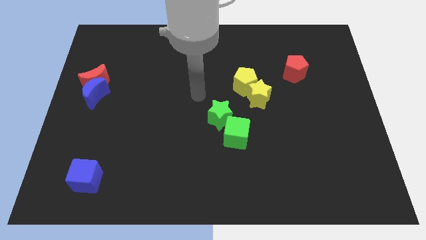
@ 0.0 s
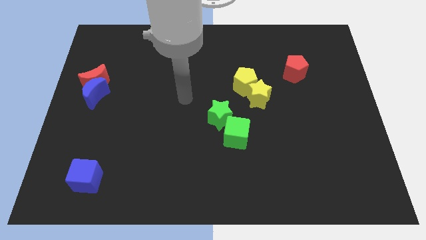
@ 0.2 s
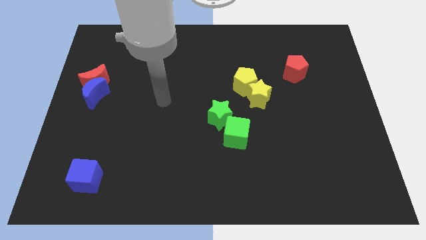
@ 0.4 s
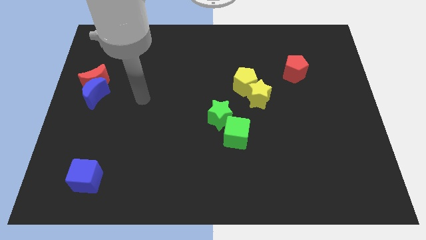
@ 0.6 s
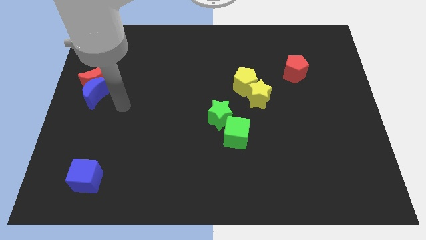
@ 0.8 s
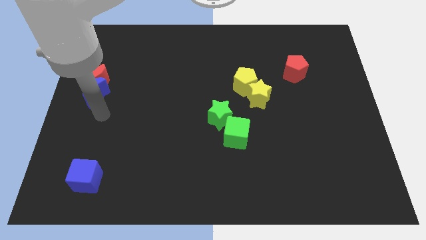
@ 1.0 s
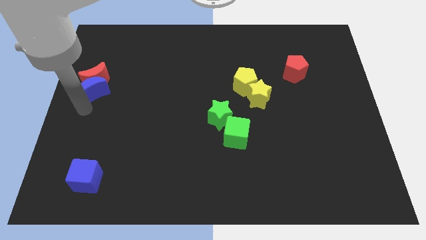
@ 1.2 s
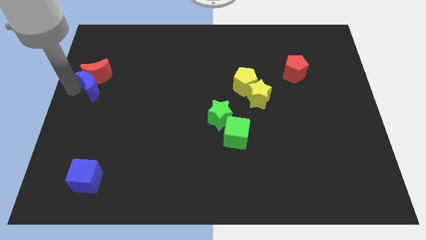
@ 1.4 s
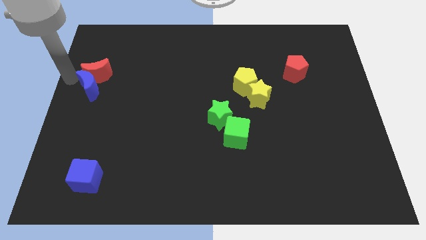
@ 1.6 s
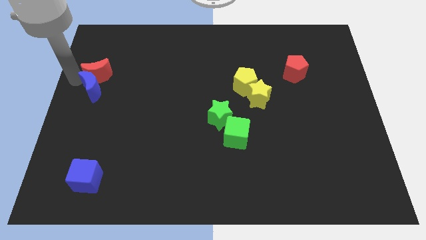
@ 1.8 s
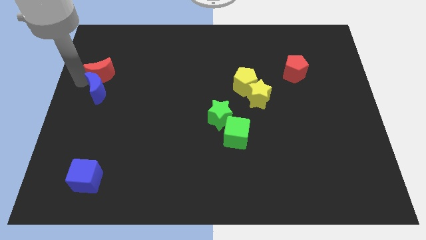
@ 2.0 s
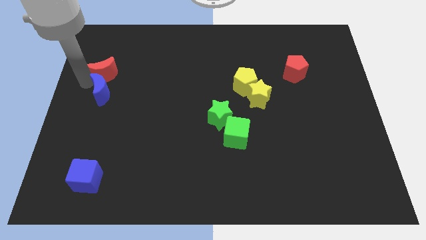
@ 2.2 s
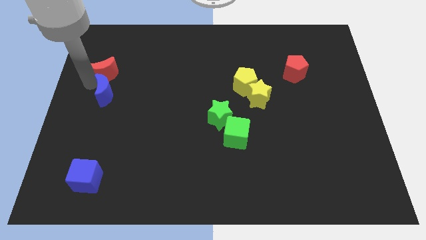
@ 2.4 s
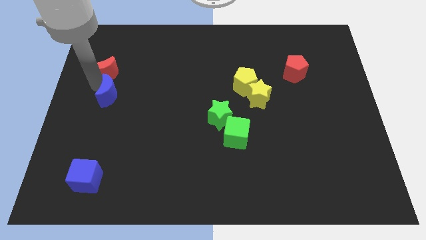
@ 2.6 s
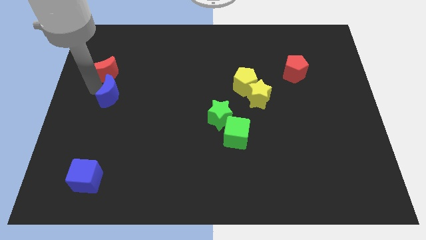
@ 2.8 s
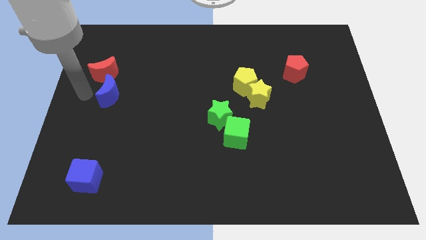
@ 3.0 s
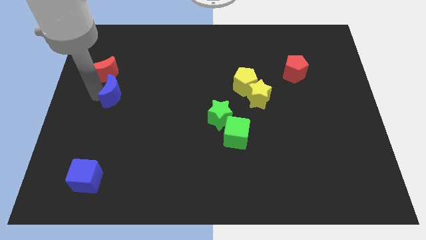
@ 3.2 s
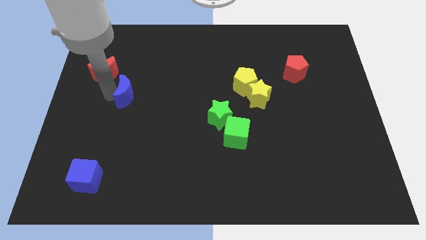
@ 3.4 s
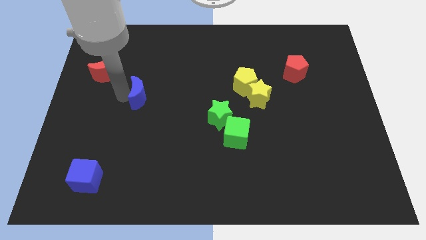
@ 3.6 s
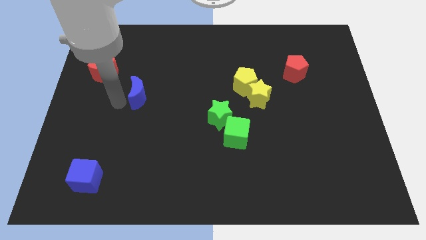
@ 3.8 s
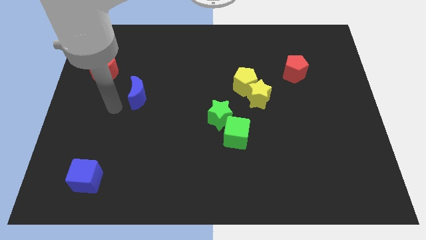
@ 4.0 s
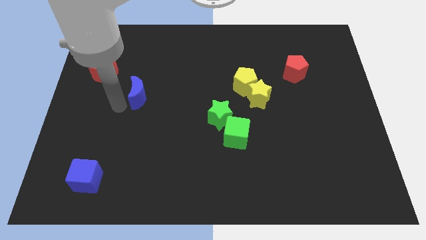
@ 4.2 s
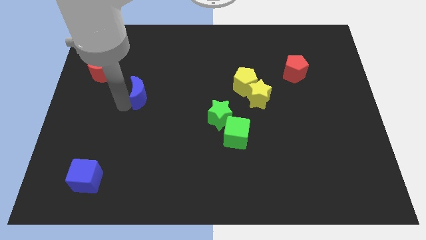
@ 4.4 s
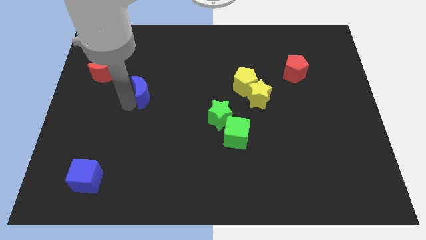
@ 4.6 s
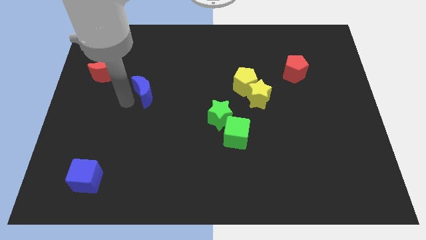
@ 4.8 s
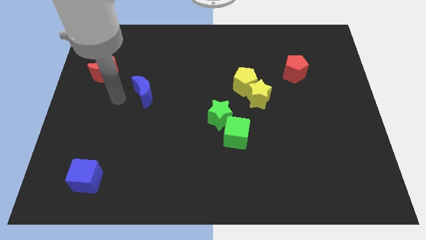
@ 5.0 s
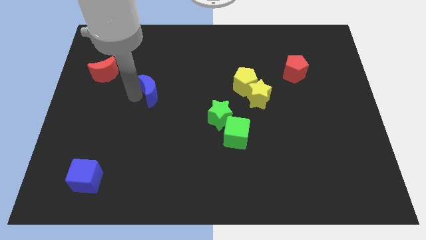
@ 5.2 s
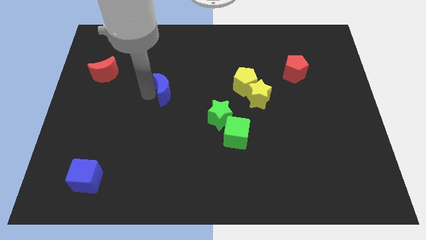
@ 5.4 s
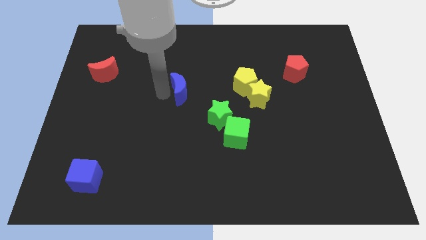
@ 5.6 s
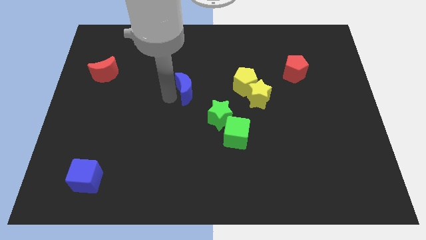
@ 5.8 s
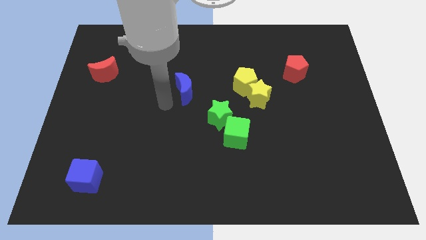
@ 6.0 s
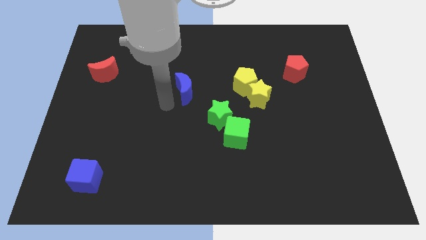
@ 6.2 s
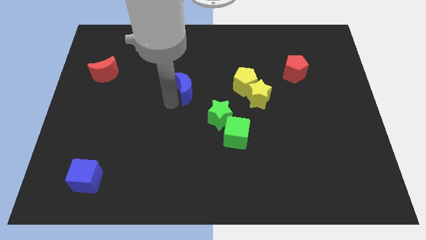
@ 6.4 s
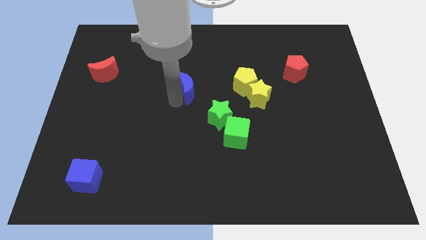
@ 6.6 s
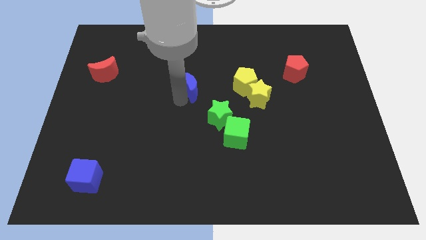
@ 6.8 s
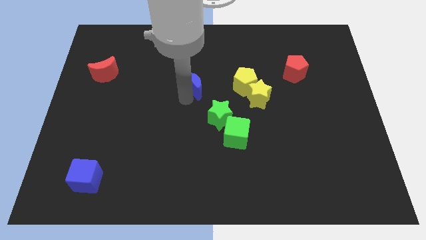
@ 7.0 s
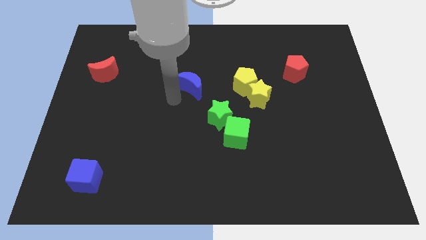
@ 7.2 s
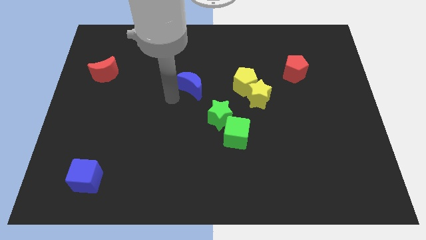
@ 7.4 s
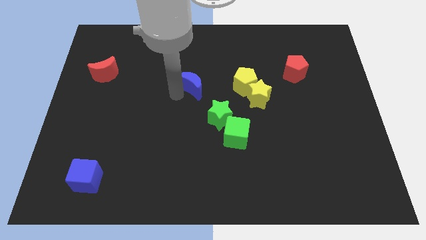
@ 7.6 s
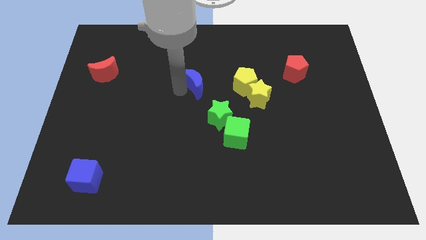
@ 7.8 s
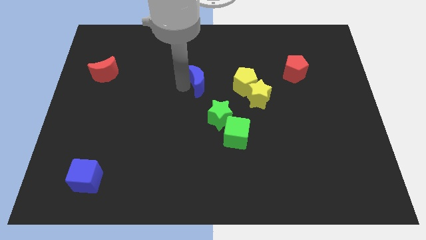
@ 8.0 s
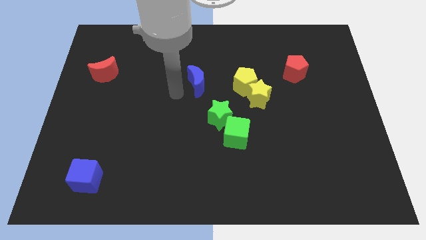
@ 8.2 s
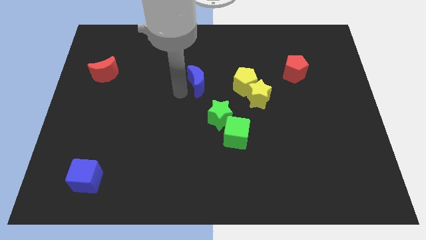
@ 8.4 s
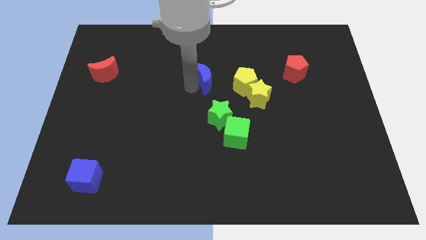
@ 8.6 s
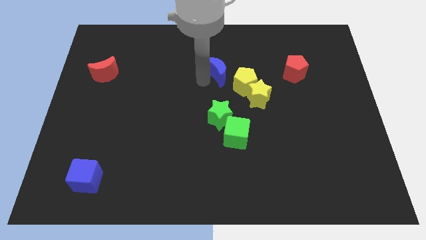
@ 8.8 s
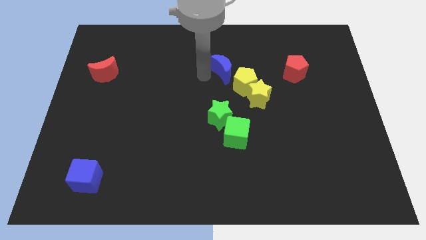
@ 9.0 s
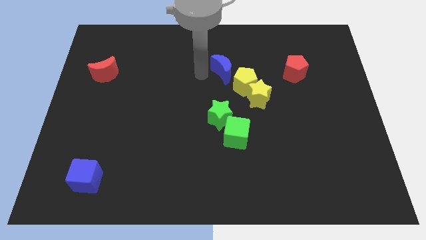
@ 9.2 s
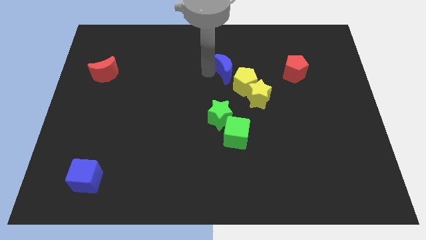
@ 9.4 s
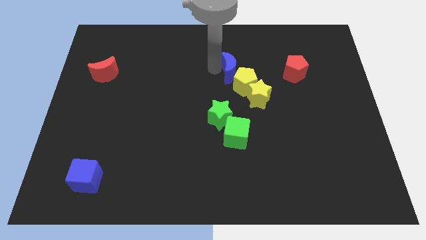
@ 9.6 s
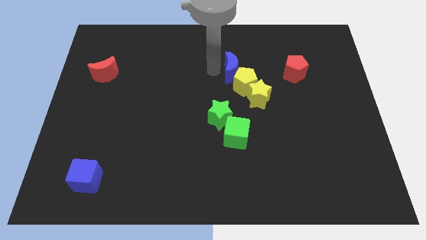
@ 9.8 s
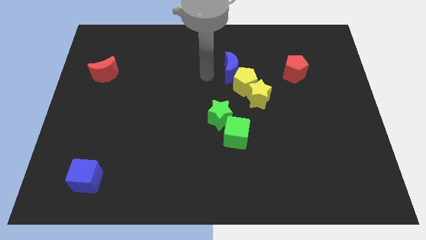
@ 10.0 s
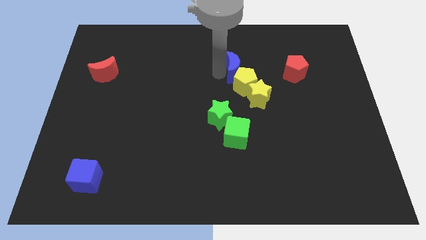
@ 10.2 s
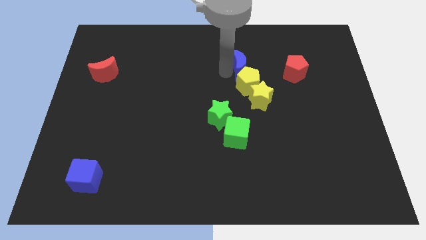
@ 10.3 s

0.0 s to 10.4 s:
push the blue moon to the top side of the yellow star
